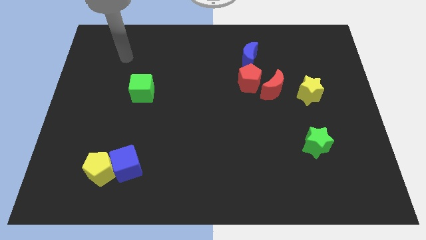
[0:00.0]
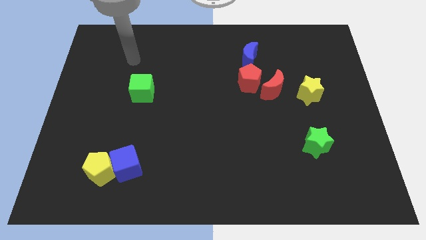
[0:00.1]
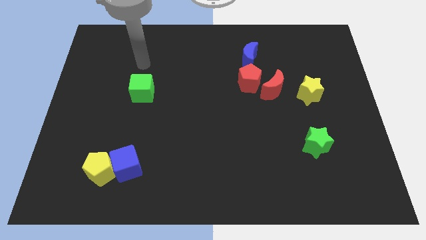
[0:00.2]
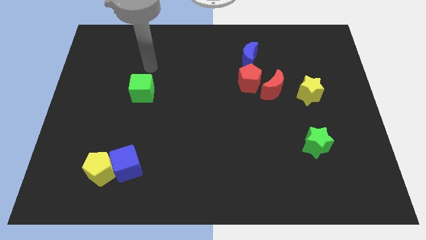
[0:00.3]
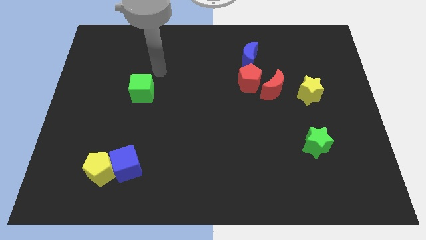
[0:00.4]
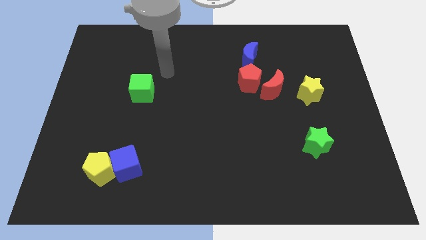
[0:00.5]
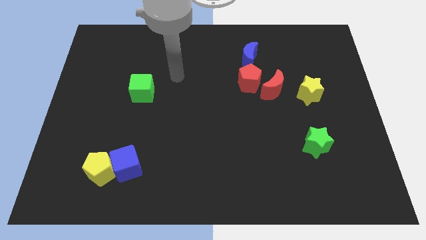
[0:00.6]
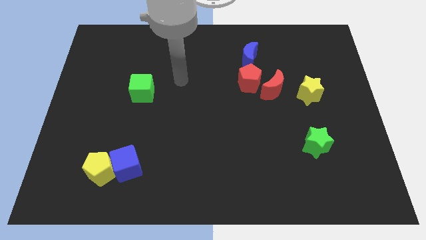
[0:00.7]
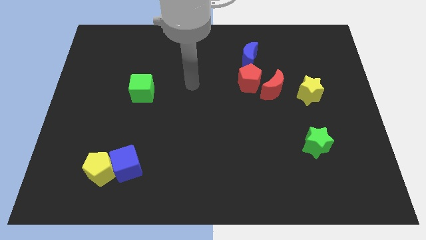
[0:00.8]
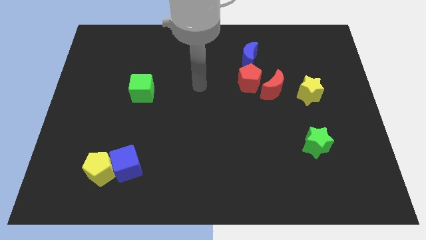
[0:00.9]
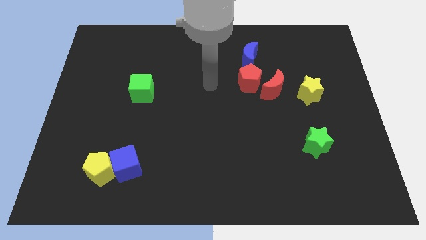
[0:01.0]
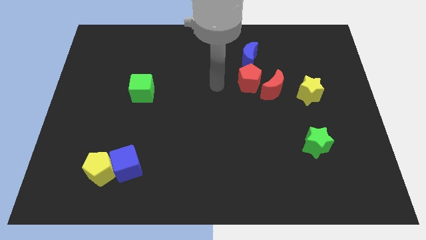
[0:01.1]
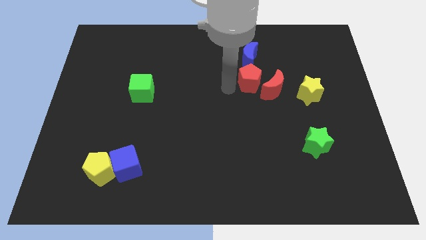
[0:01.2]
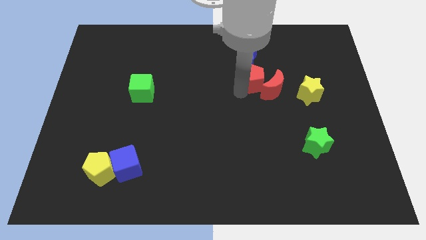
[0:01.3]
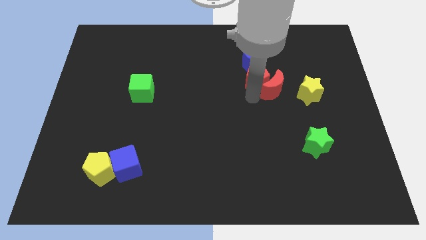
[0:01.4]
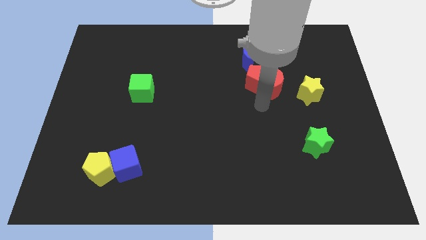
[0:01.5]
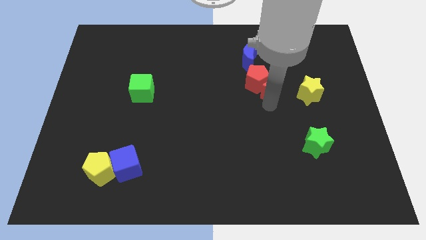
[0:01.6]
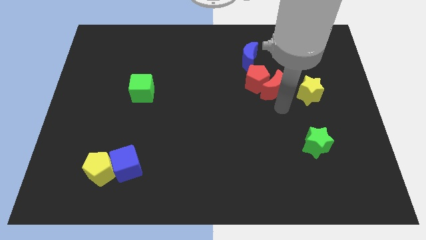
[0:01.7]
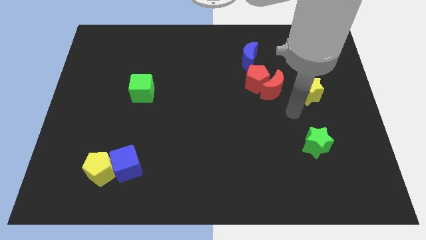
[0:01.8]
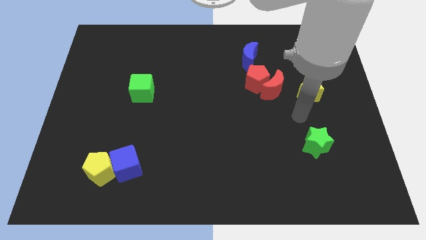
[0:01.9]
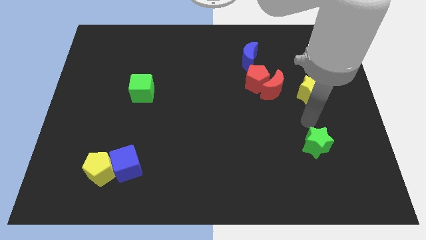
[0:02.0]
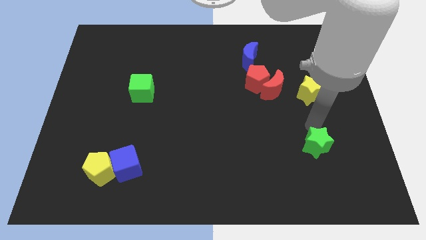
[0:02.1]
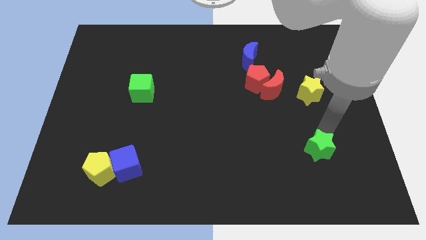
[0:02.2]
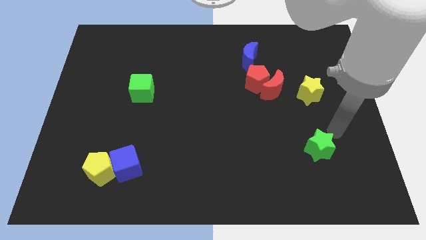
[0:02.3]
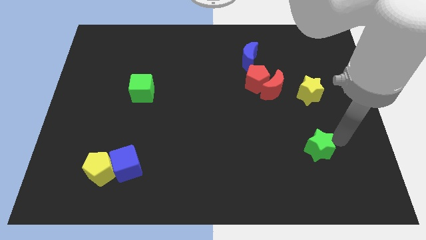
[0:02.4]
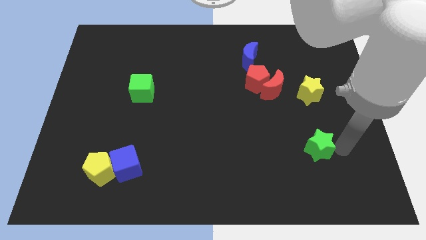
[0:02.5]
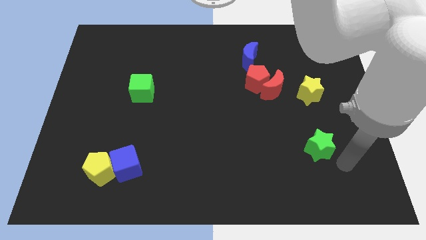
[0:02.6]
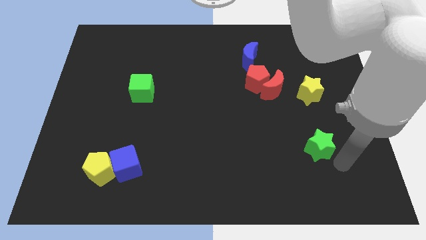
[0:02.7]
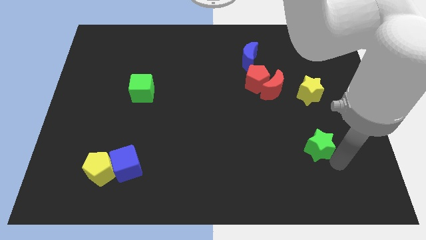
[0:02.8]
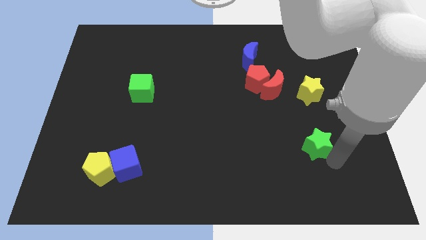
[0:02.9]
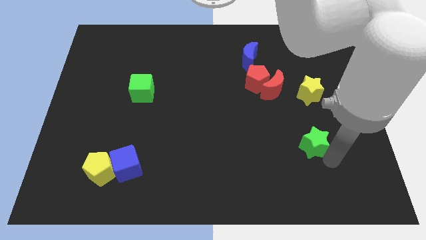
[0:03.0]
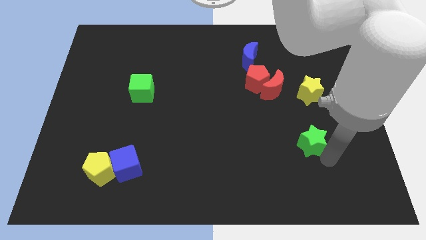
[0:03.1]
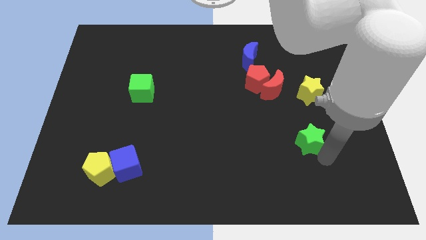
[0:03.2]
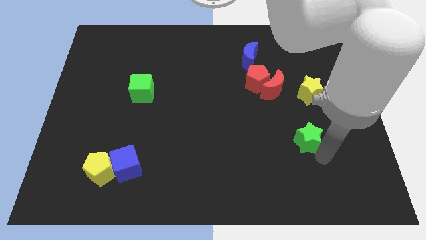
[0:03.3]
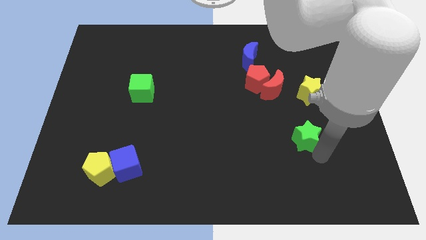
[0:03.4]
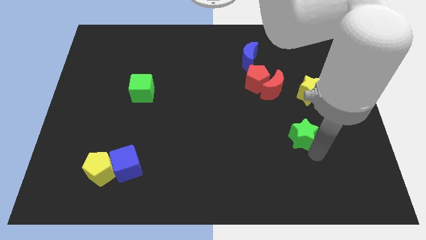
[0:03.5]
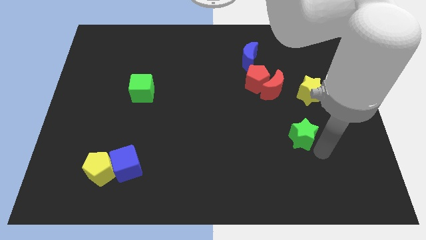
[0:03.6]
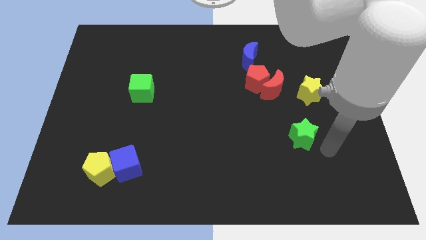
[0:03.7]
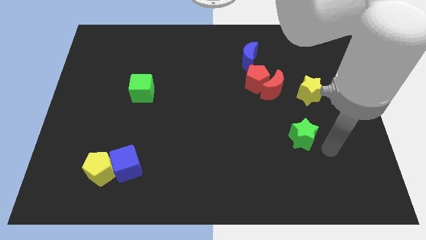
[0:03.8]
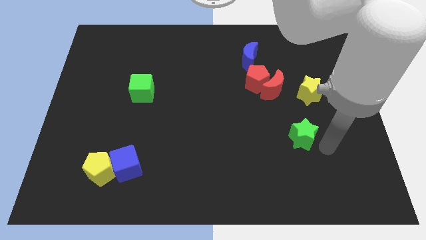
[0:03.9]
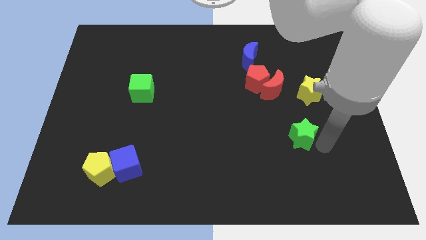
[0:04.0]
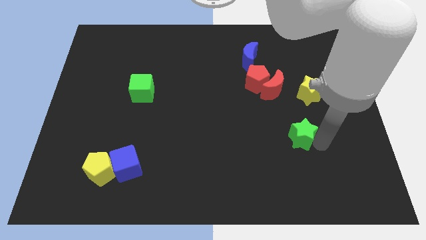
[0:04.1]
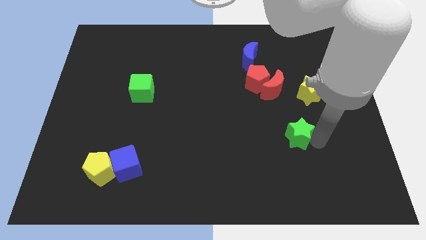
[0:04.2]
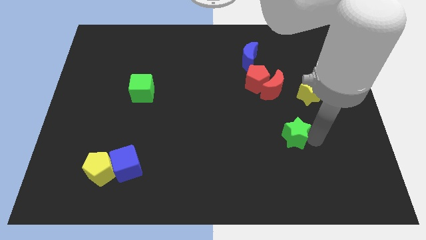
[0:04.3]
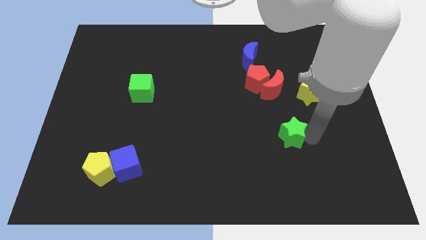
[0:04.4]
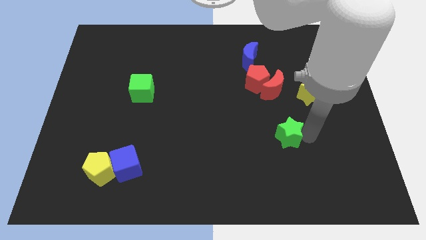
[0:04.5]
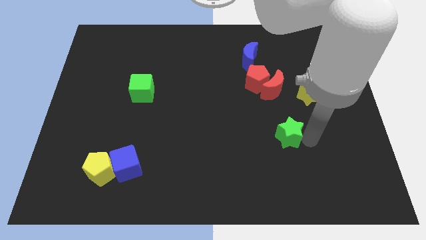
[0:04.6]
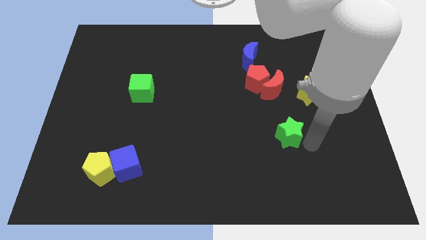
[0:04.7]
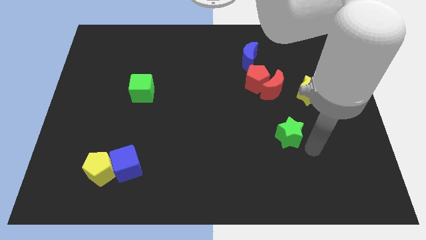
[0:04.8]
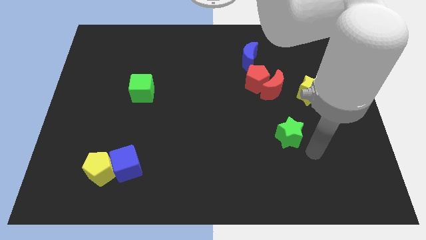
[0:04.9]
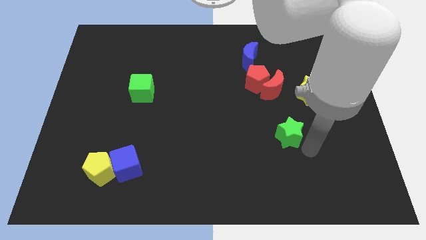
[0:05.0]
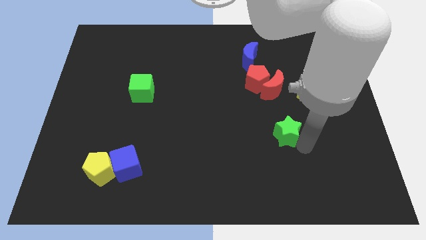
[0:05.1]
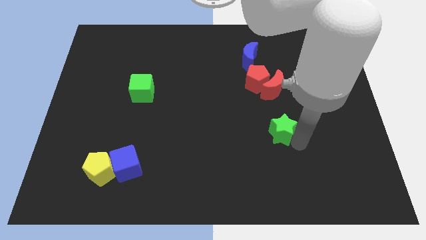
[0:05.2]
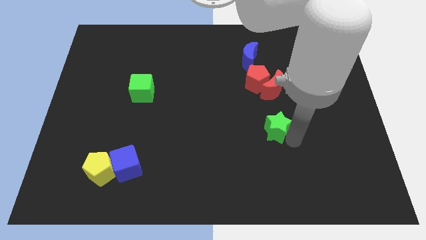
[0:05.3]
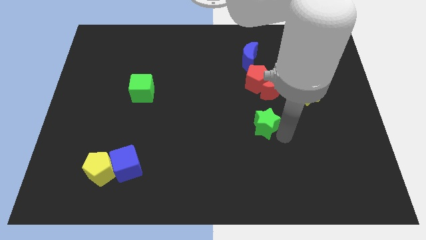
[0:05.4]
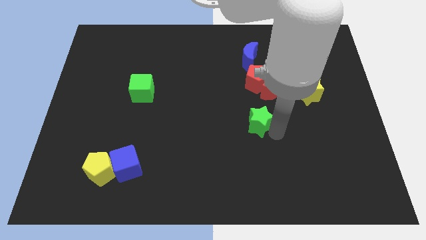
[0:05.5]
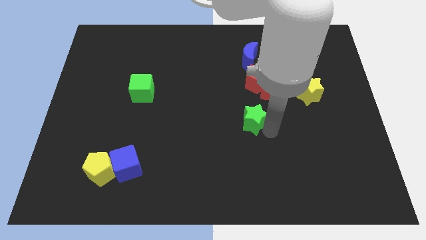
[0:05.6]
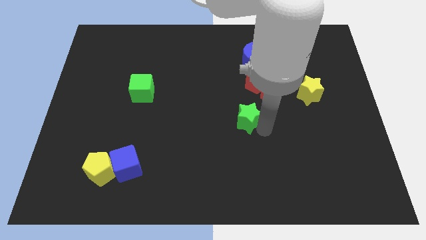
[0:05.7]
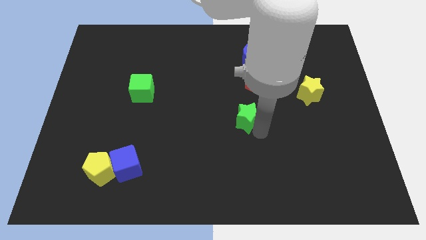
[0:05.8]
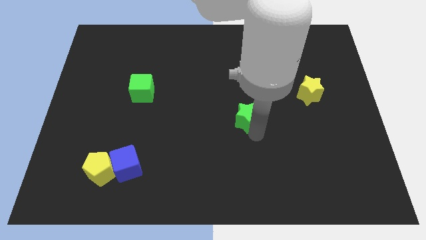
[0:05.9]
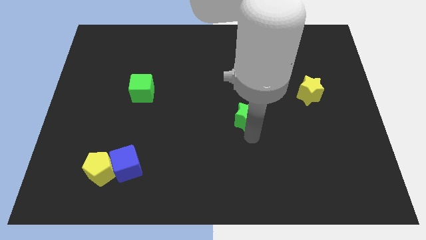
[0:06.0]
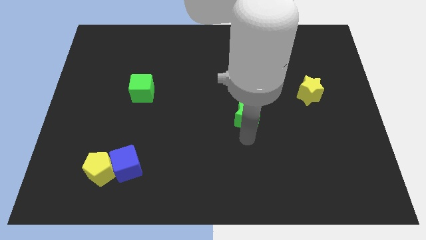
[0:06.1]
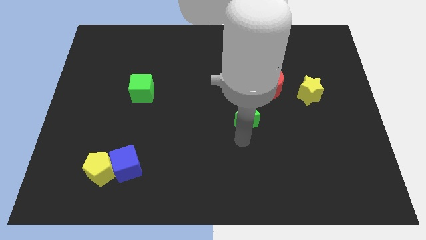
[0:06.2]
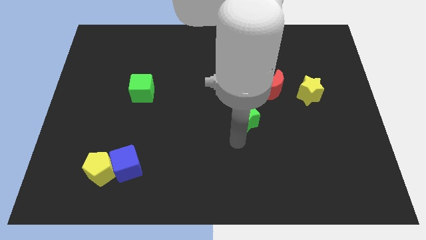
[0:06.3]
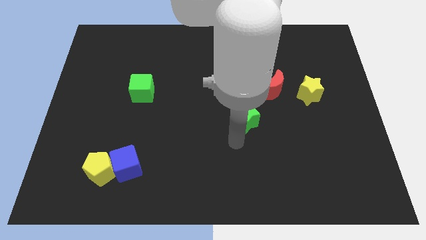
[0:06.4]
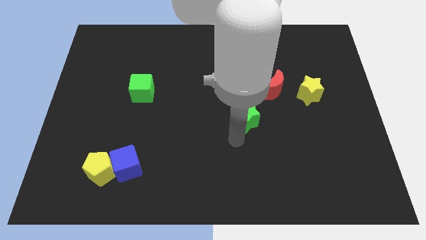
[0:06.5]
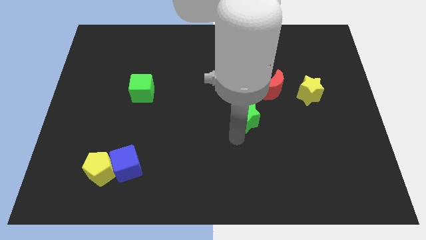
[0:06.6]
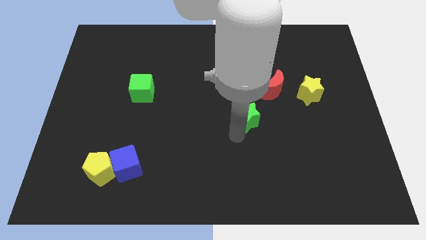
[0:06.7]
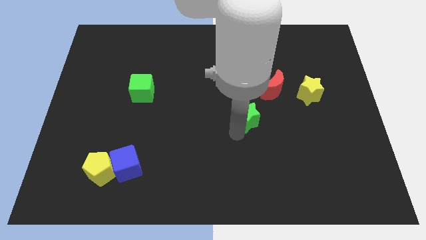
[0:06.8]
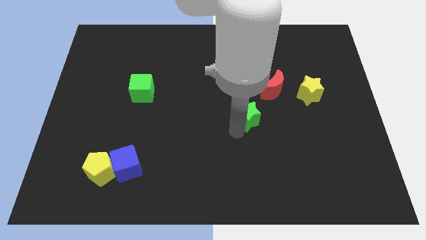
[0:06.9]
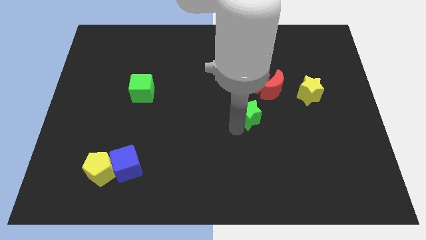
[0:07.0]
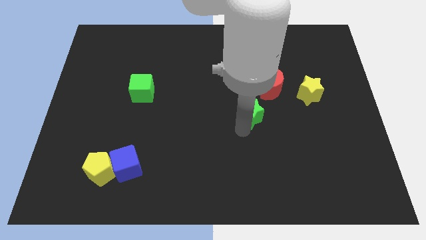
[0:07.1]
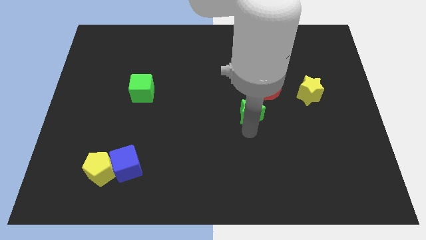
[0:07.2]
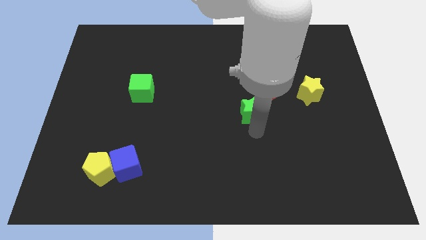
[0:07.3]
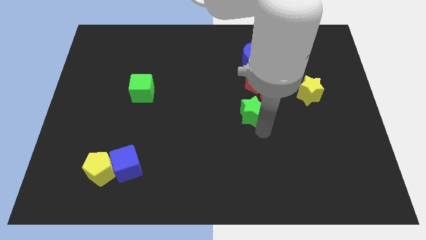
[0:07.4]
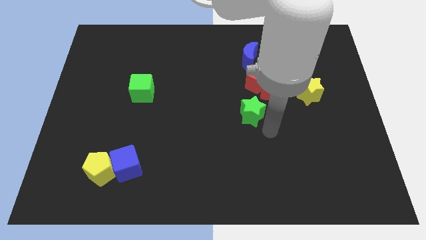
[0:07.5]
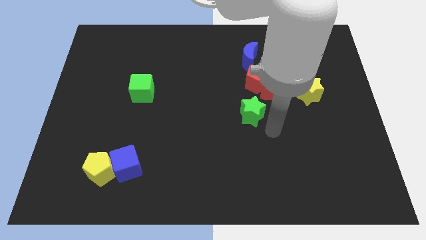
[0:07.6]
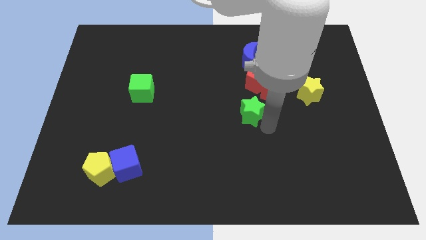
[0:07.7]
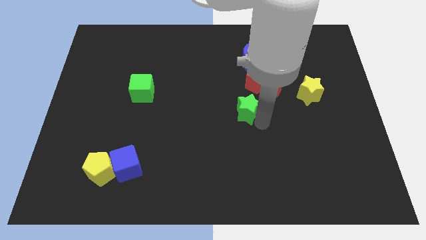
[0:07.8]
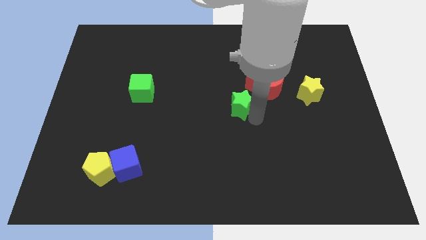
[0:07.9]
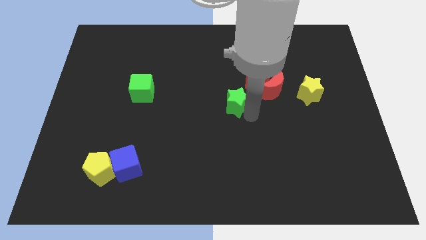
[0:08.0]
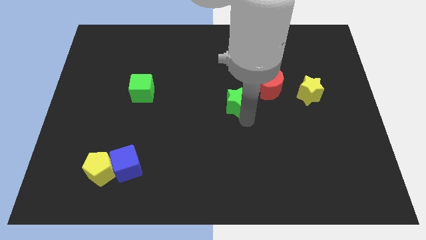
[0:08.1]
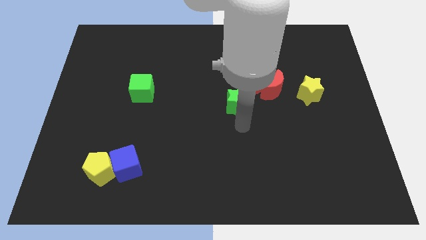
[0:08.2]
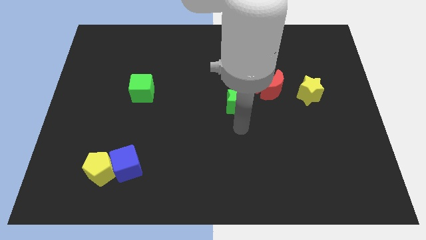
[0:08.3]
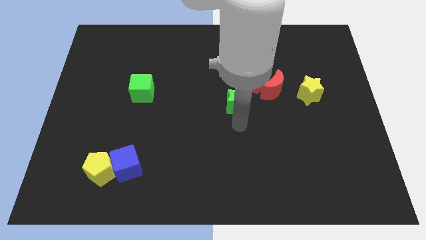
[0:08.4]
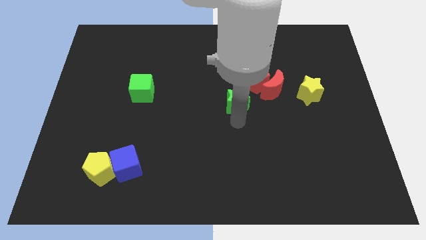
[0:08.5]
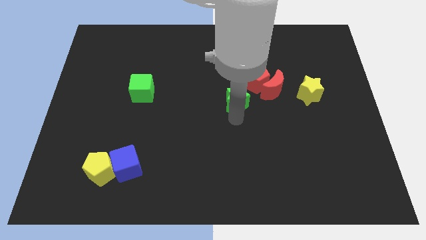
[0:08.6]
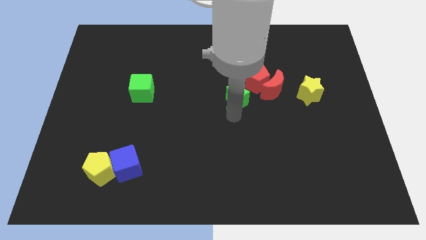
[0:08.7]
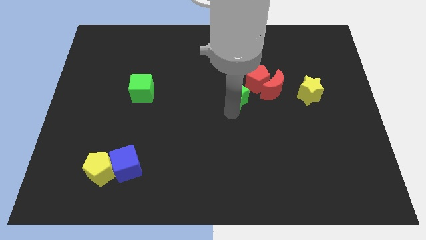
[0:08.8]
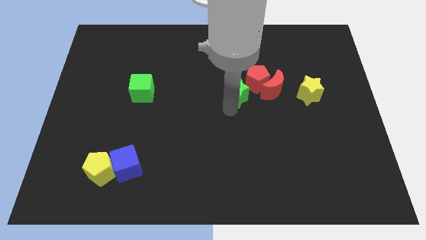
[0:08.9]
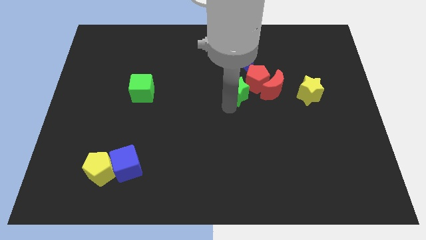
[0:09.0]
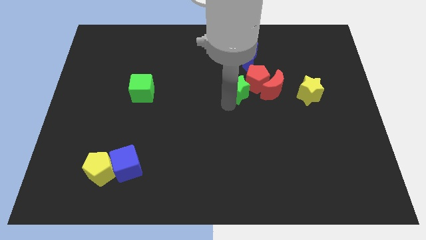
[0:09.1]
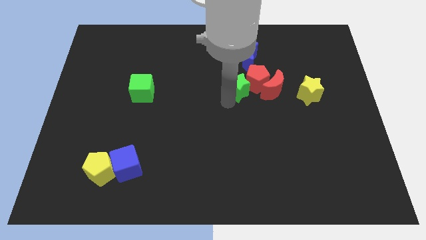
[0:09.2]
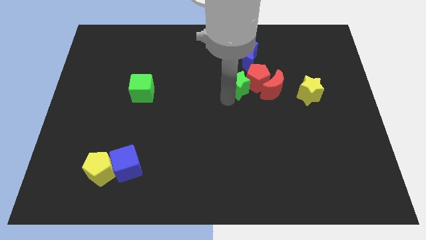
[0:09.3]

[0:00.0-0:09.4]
slide the green star to the bottom left side of the blue moon
